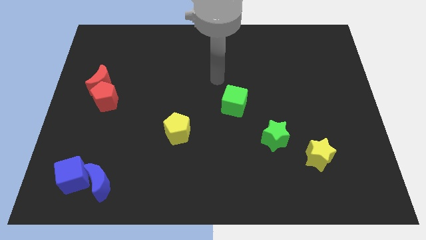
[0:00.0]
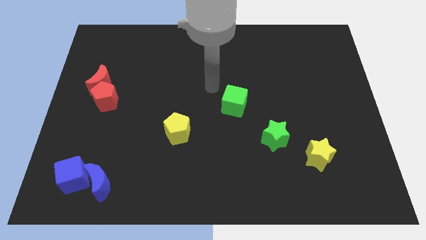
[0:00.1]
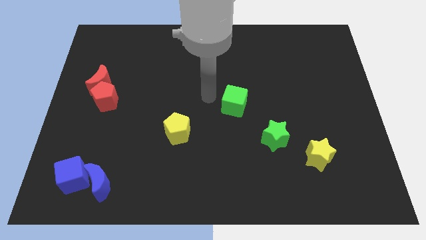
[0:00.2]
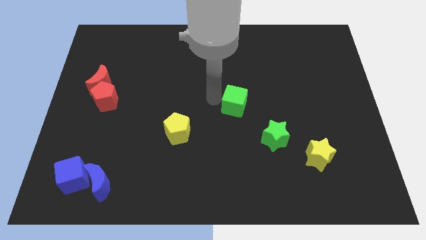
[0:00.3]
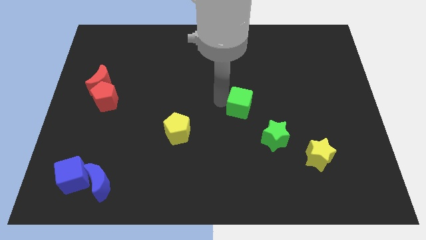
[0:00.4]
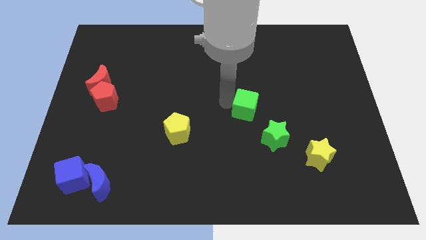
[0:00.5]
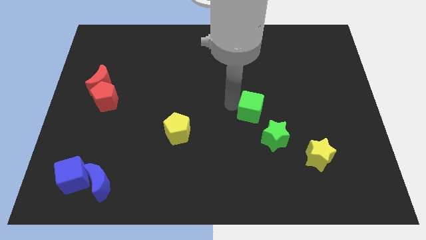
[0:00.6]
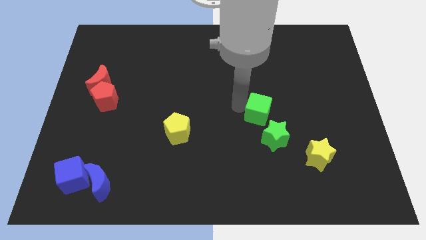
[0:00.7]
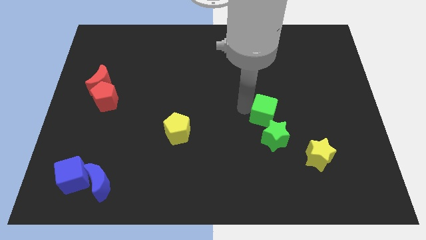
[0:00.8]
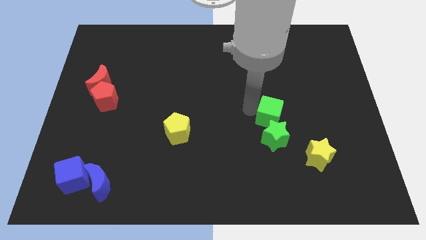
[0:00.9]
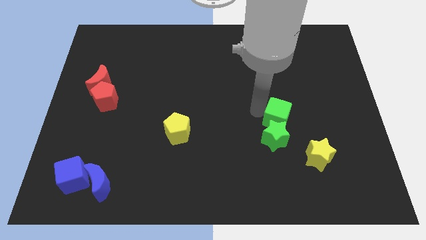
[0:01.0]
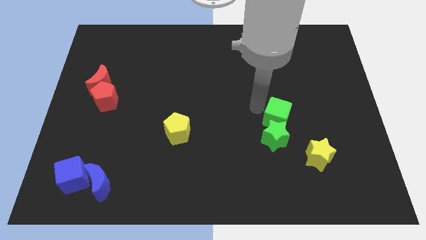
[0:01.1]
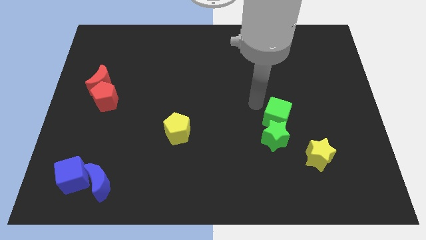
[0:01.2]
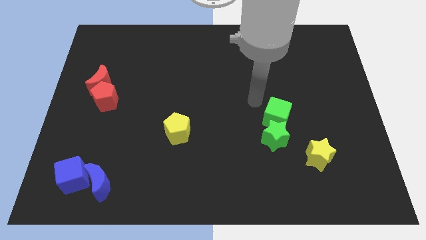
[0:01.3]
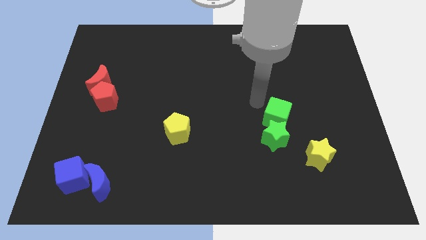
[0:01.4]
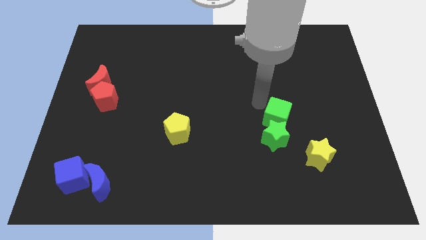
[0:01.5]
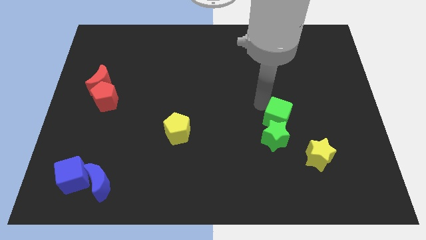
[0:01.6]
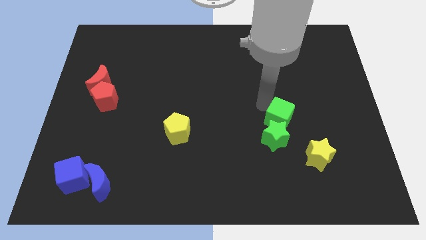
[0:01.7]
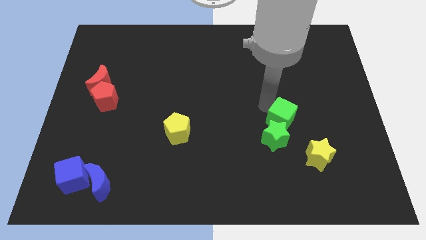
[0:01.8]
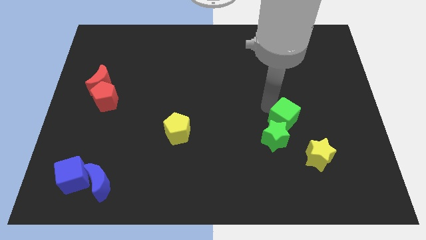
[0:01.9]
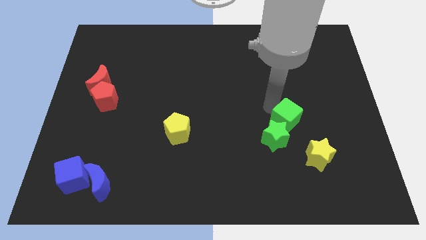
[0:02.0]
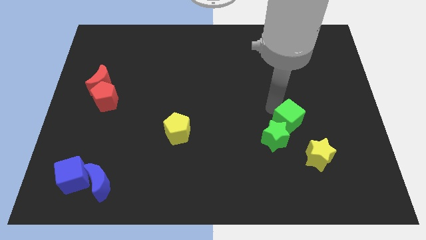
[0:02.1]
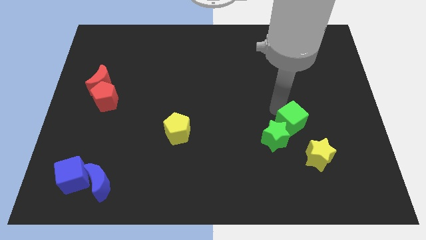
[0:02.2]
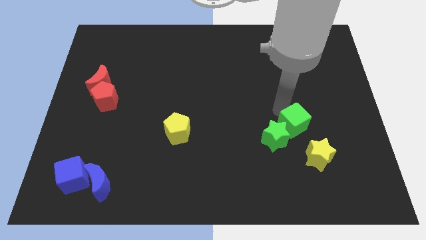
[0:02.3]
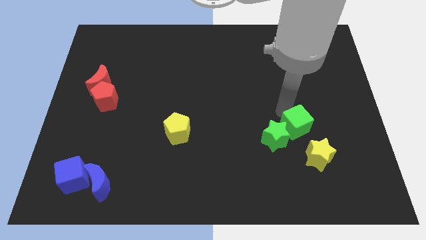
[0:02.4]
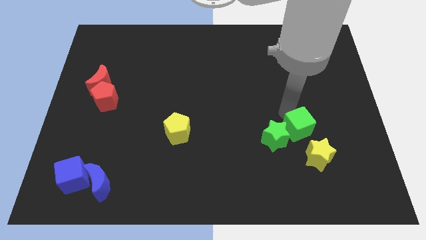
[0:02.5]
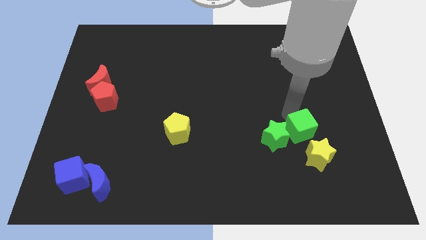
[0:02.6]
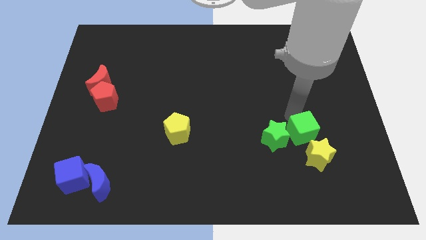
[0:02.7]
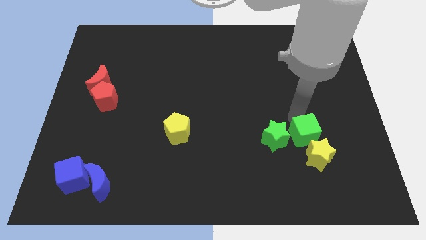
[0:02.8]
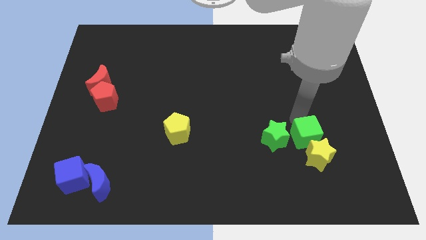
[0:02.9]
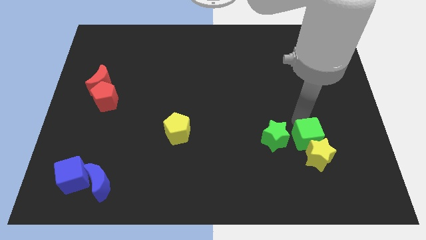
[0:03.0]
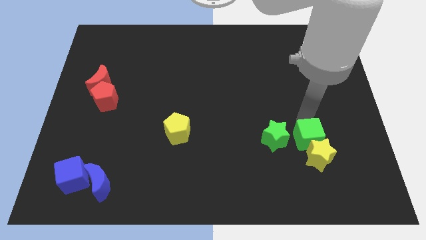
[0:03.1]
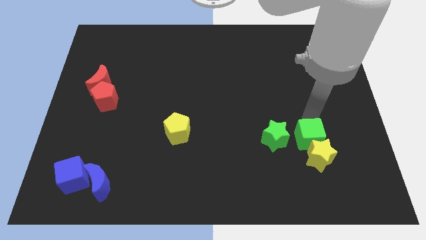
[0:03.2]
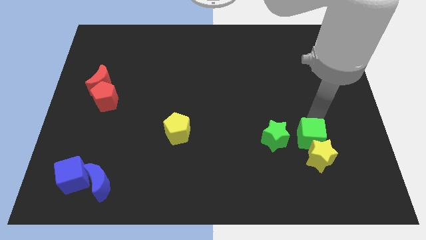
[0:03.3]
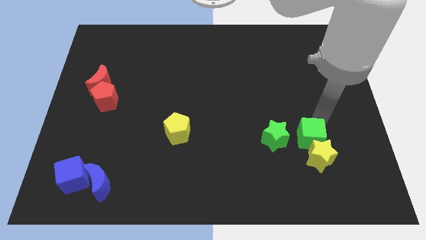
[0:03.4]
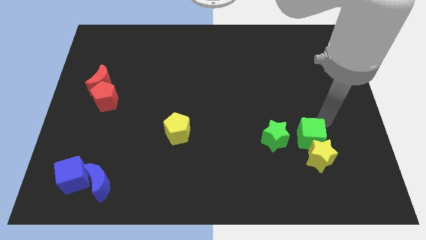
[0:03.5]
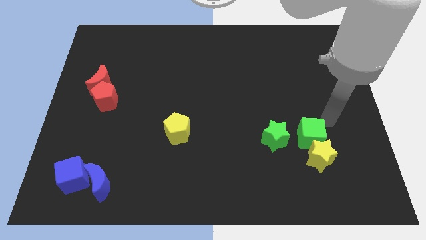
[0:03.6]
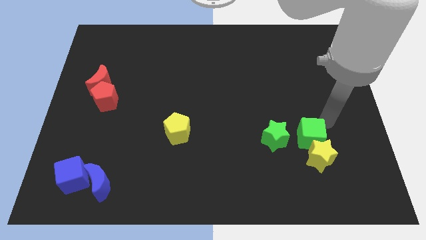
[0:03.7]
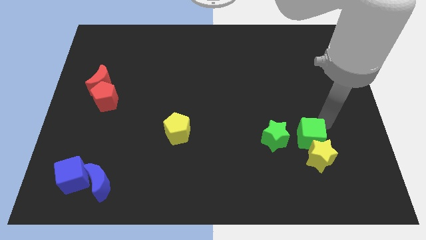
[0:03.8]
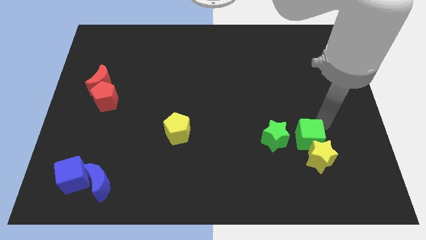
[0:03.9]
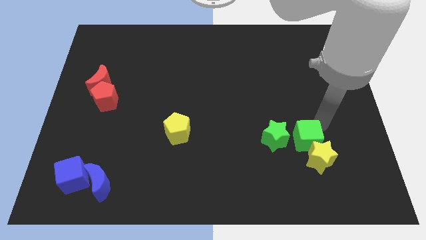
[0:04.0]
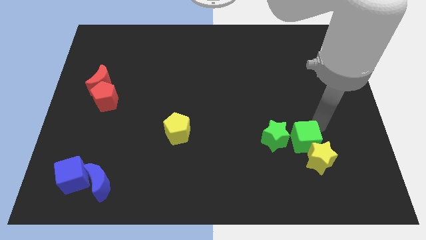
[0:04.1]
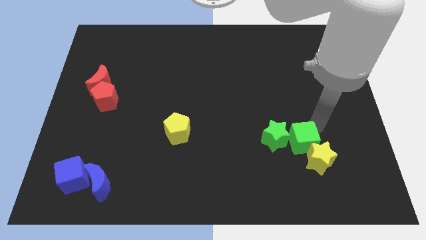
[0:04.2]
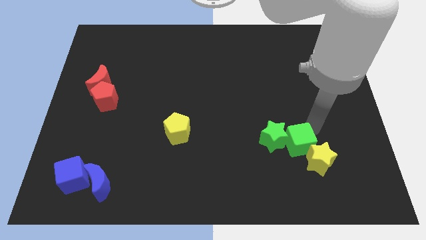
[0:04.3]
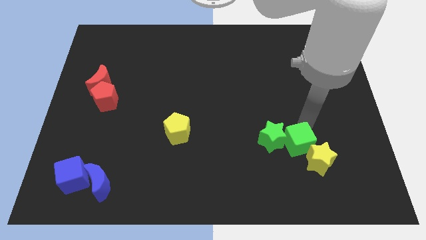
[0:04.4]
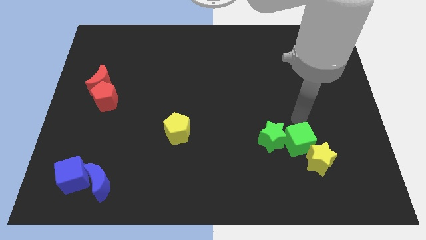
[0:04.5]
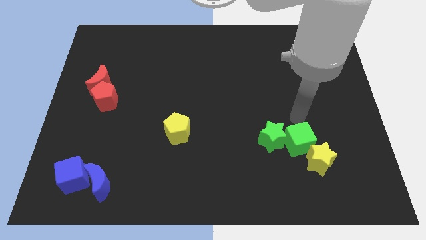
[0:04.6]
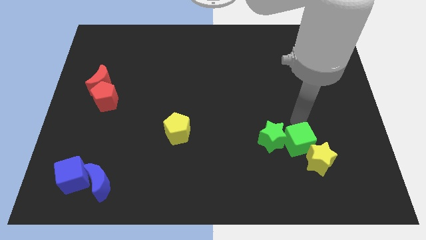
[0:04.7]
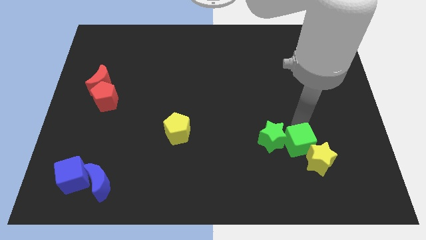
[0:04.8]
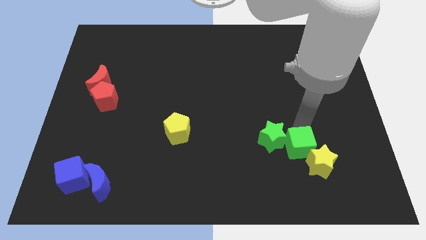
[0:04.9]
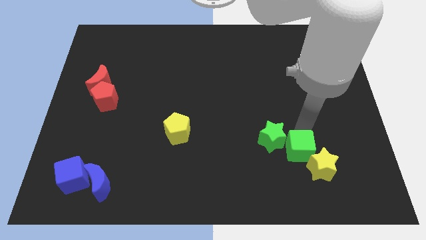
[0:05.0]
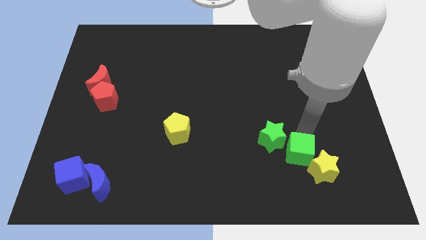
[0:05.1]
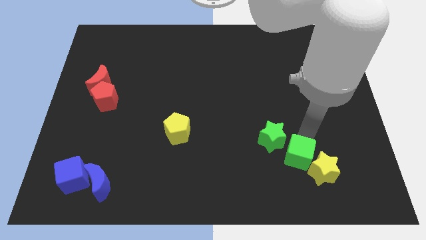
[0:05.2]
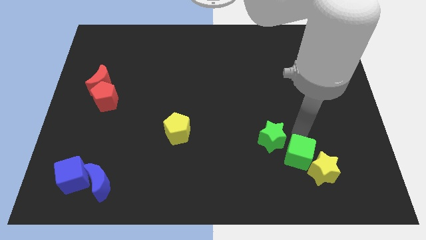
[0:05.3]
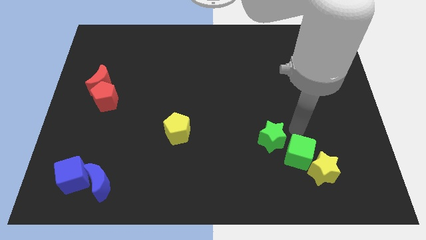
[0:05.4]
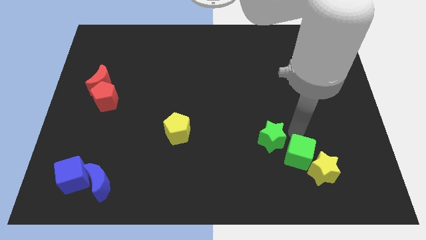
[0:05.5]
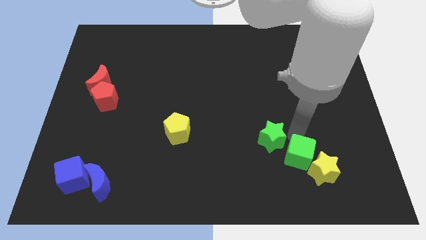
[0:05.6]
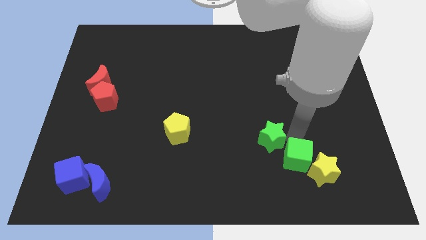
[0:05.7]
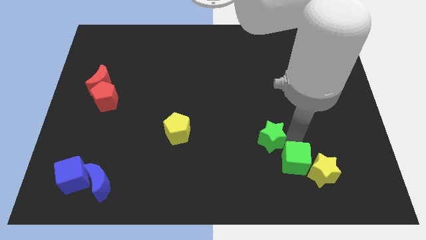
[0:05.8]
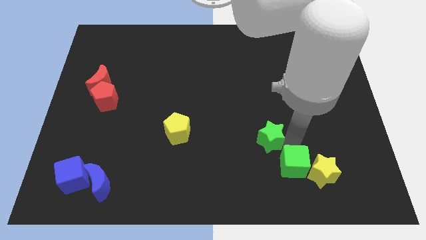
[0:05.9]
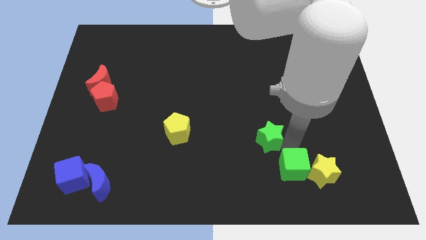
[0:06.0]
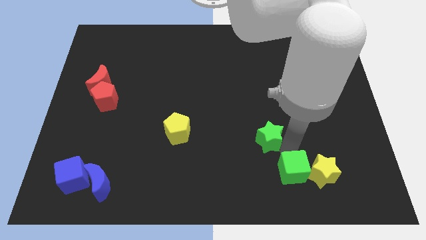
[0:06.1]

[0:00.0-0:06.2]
slide the green cube diagonally down and to the left of the yellow star
